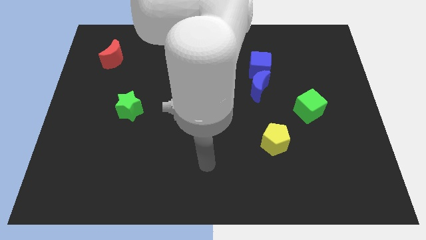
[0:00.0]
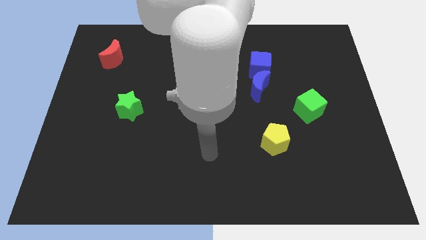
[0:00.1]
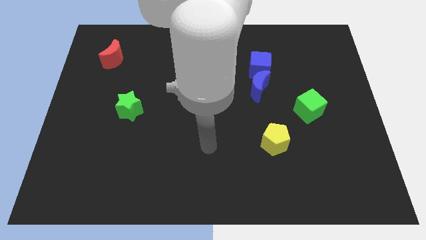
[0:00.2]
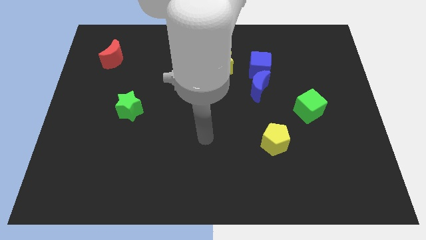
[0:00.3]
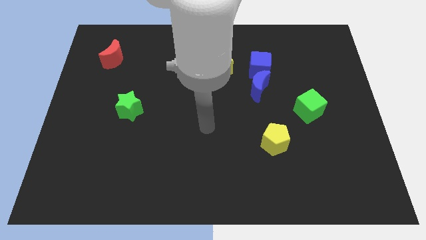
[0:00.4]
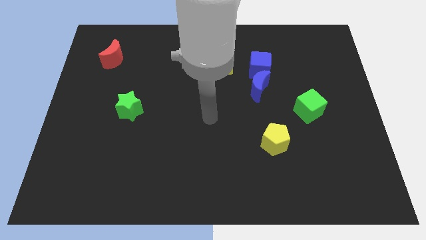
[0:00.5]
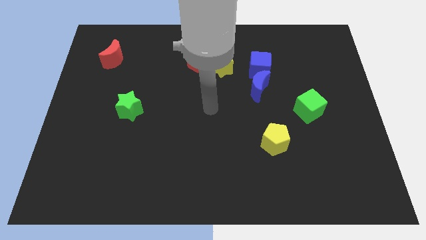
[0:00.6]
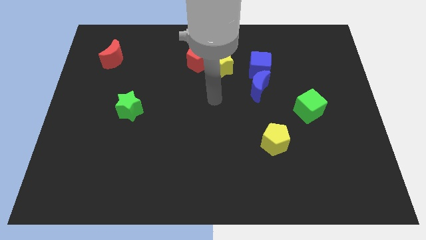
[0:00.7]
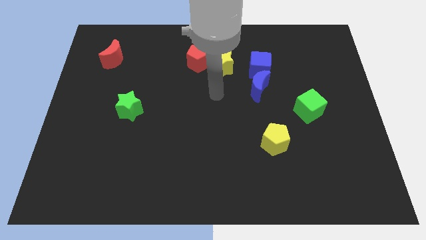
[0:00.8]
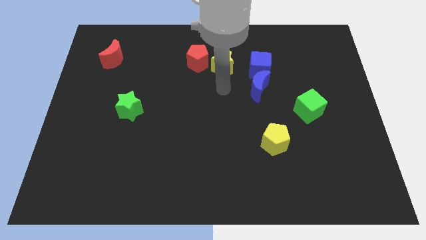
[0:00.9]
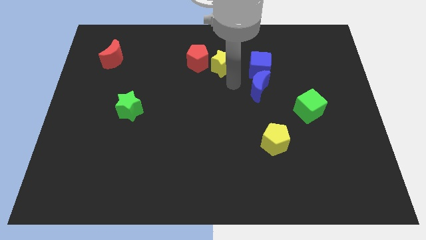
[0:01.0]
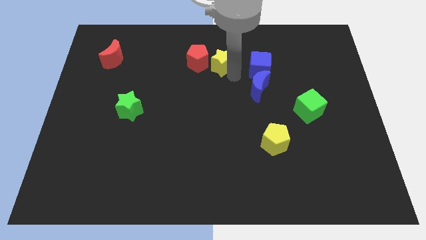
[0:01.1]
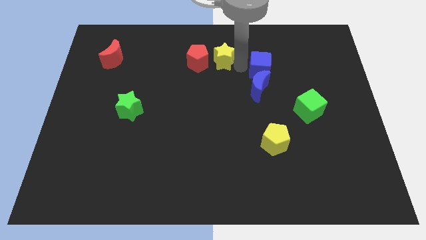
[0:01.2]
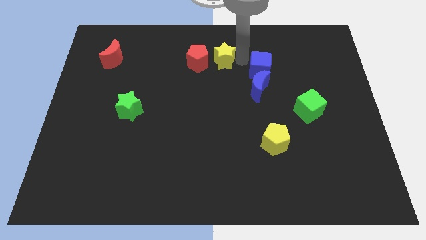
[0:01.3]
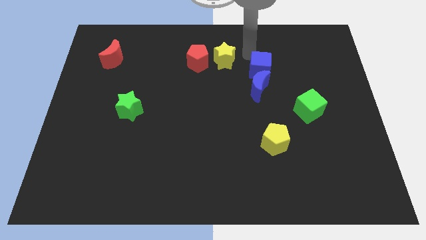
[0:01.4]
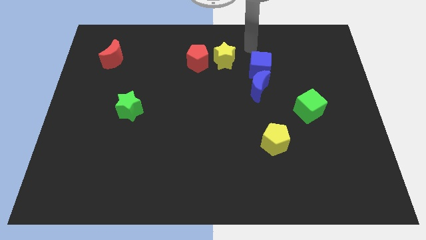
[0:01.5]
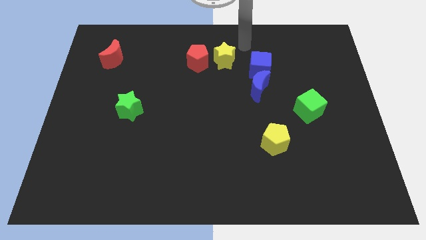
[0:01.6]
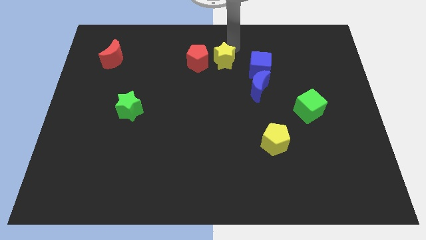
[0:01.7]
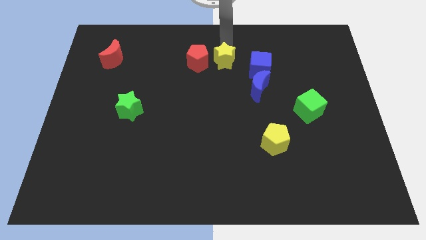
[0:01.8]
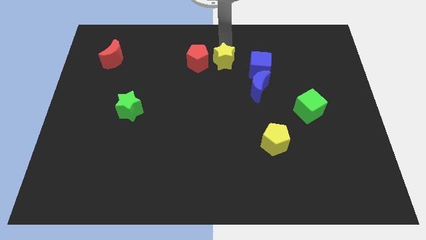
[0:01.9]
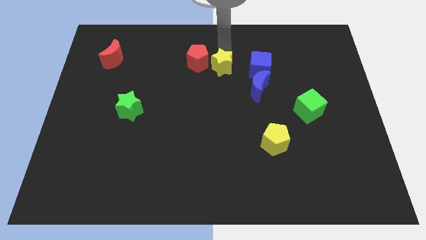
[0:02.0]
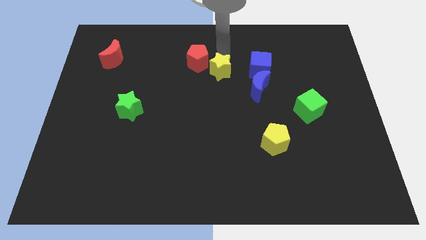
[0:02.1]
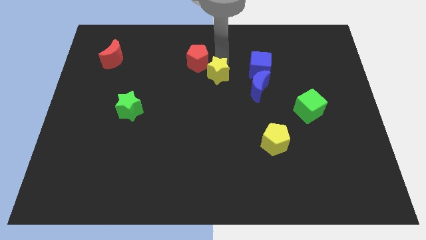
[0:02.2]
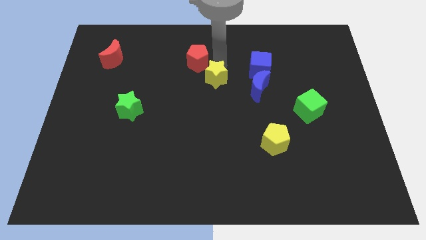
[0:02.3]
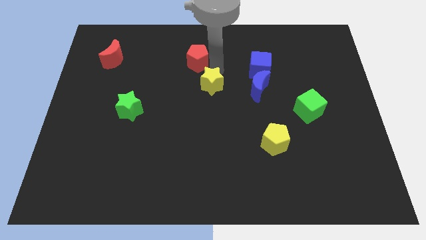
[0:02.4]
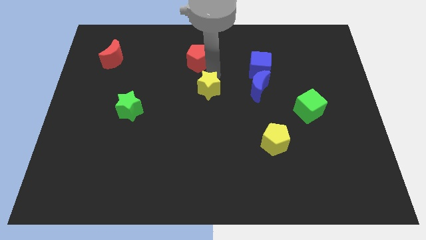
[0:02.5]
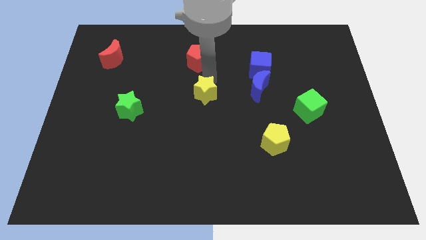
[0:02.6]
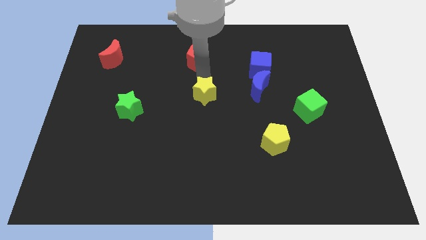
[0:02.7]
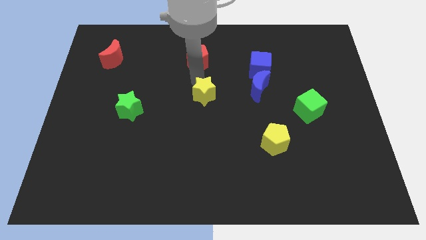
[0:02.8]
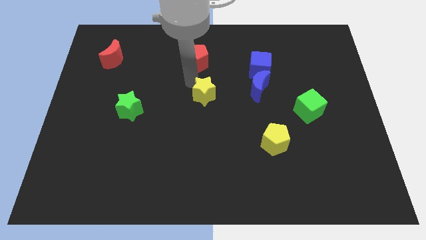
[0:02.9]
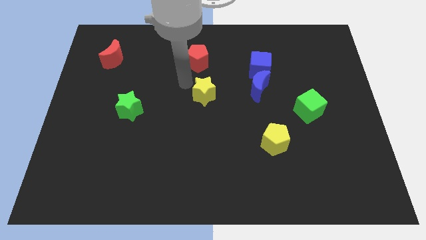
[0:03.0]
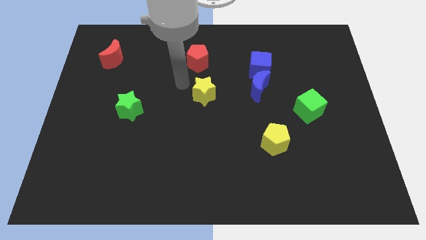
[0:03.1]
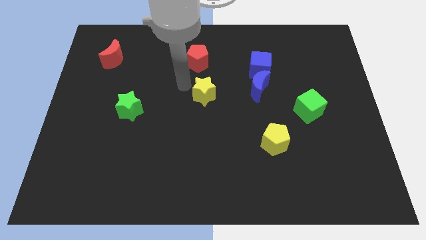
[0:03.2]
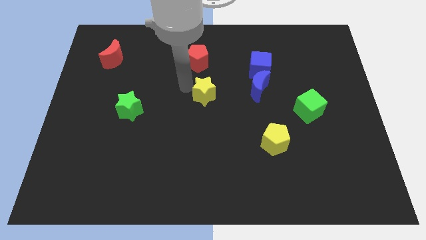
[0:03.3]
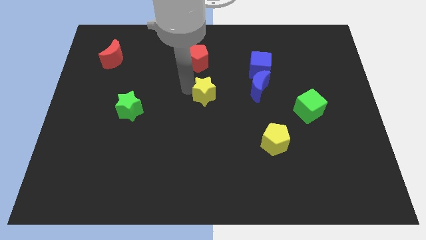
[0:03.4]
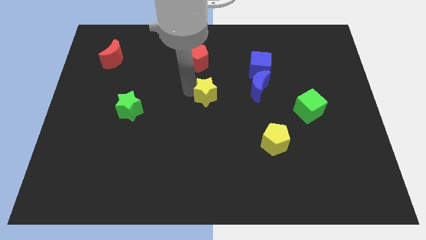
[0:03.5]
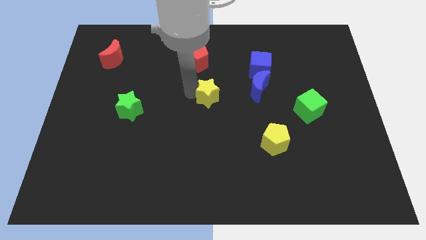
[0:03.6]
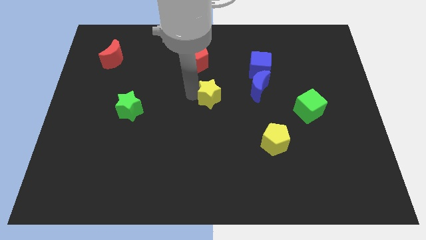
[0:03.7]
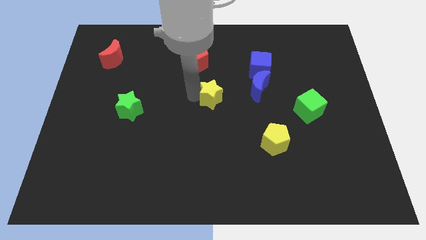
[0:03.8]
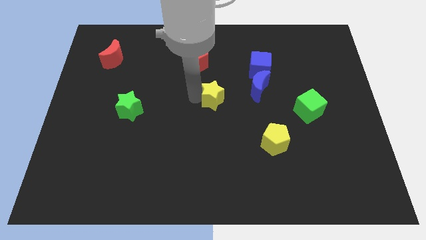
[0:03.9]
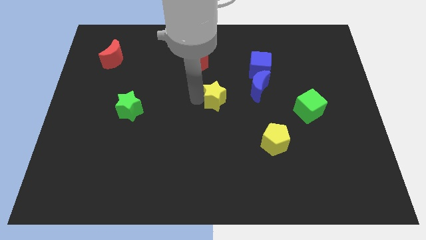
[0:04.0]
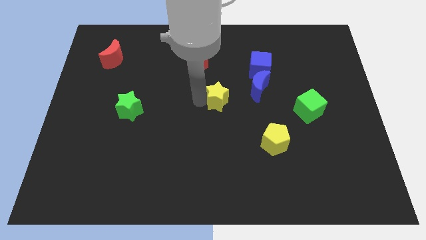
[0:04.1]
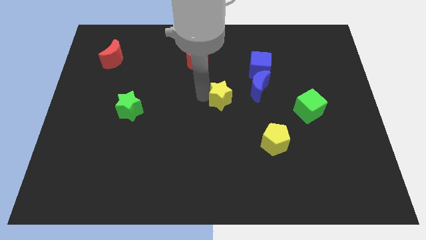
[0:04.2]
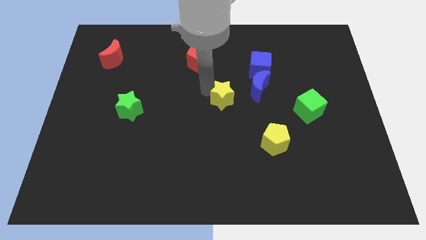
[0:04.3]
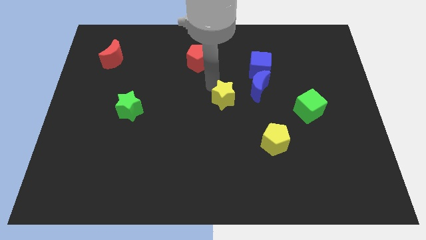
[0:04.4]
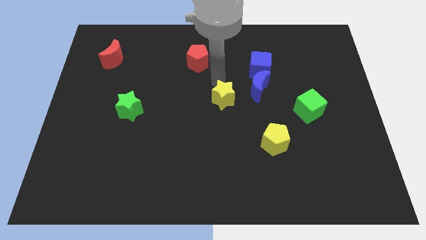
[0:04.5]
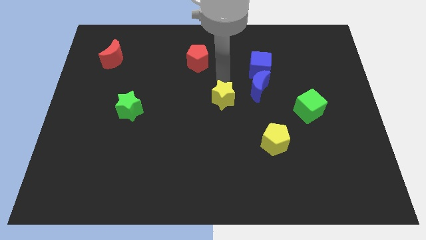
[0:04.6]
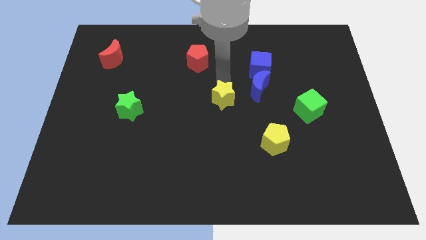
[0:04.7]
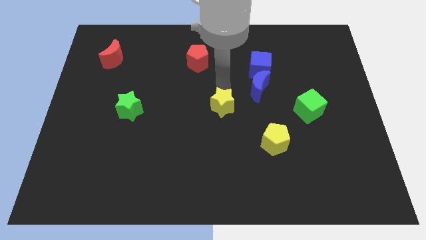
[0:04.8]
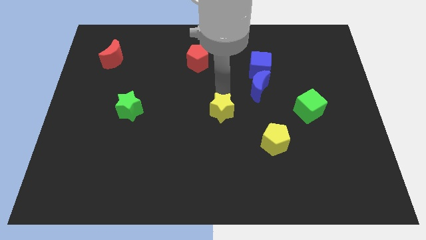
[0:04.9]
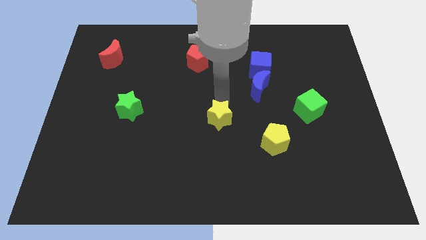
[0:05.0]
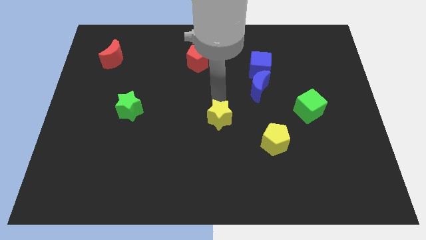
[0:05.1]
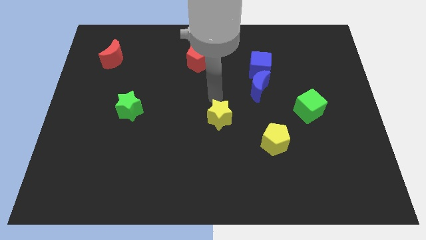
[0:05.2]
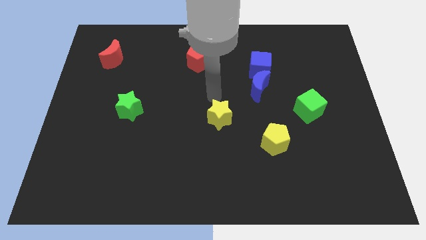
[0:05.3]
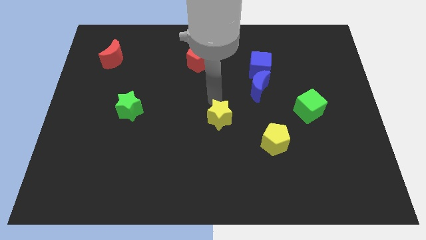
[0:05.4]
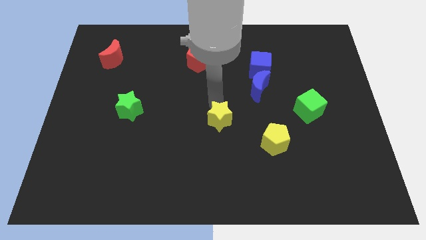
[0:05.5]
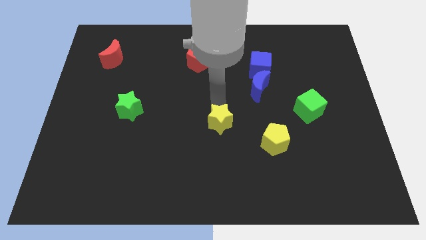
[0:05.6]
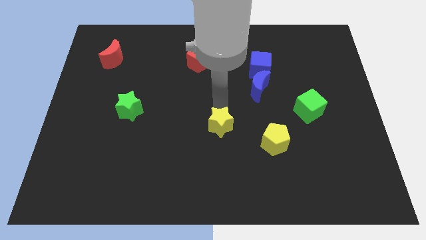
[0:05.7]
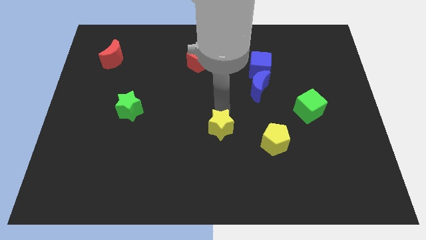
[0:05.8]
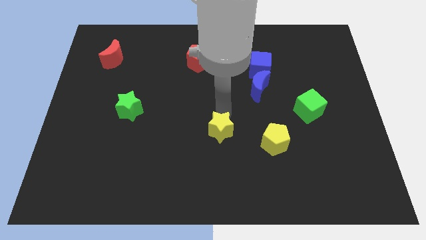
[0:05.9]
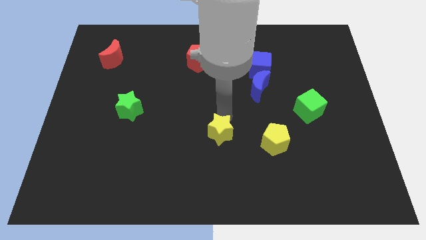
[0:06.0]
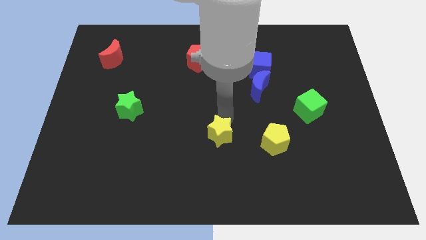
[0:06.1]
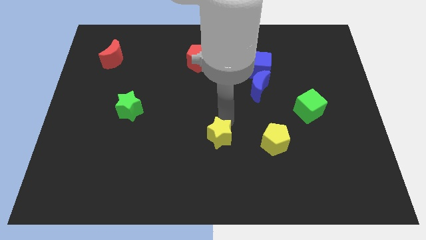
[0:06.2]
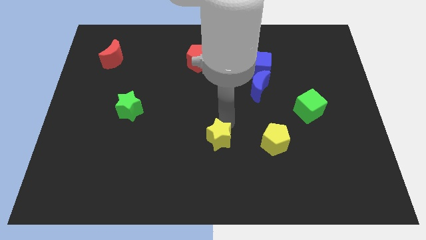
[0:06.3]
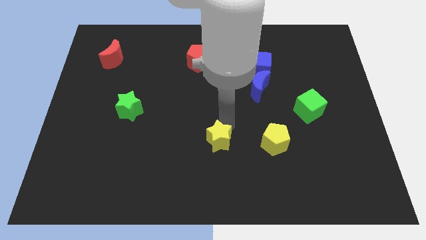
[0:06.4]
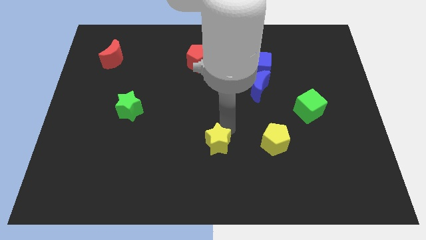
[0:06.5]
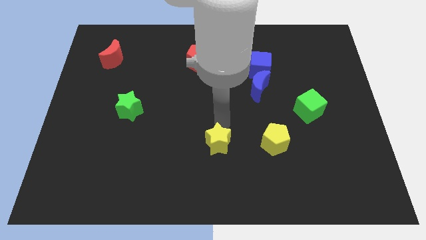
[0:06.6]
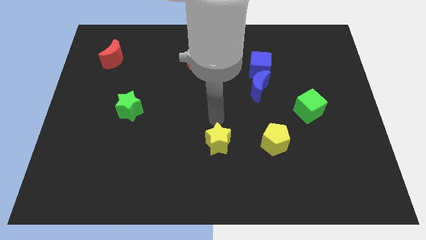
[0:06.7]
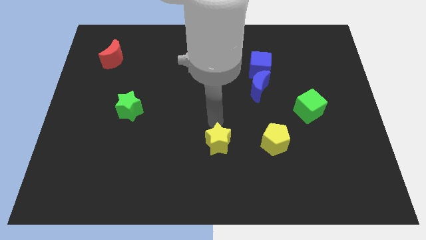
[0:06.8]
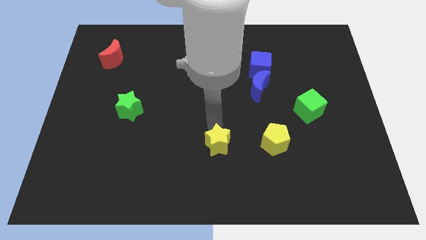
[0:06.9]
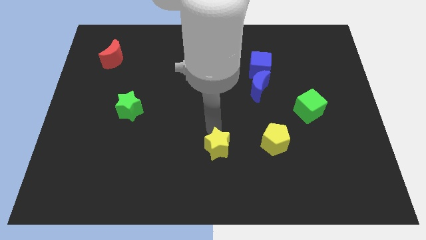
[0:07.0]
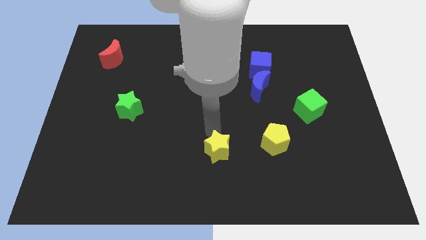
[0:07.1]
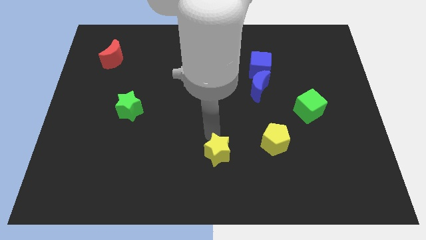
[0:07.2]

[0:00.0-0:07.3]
move the yellow star to the bottom

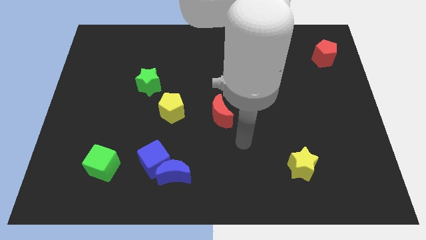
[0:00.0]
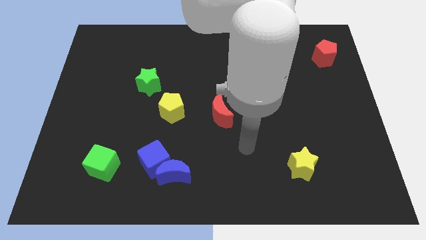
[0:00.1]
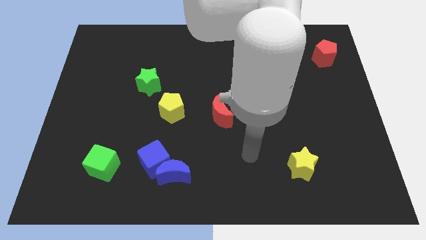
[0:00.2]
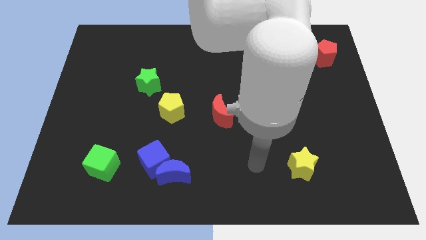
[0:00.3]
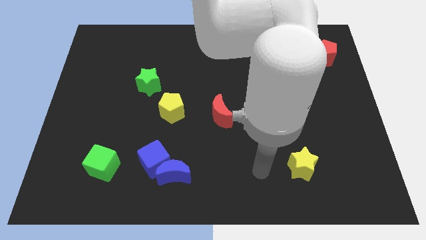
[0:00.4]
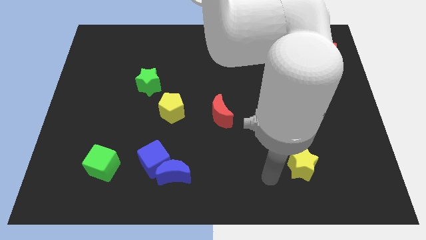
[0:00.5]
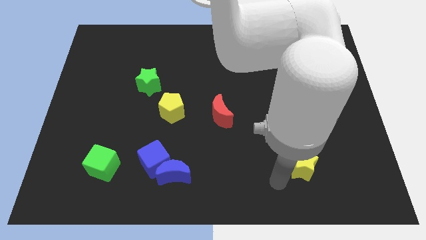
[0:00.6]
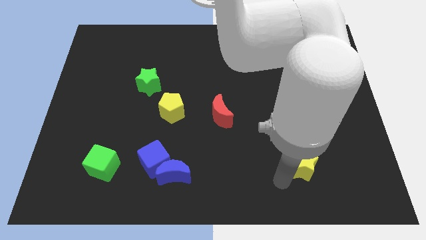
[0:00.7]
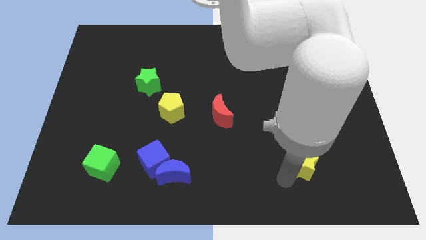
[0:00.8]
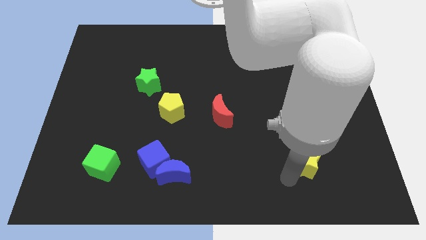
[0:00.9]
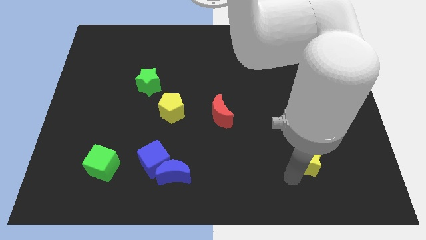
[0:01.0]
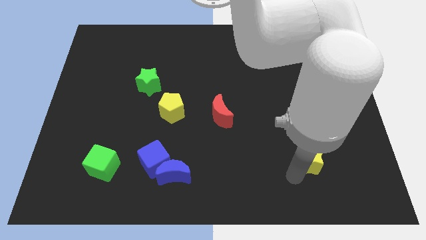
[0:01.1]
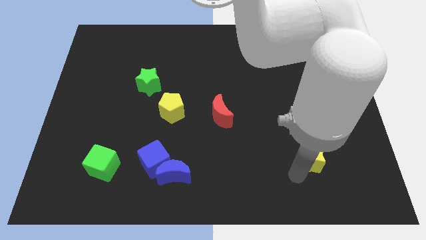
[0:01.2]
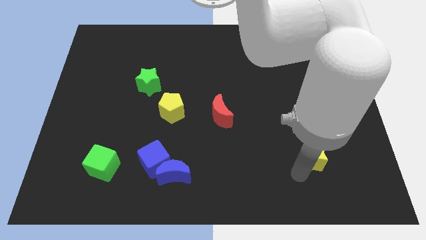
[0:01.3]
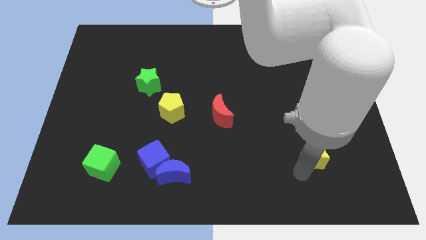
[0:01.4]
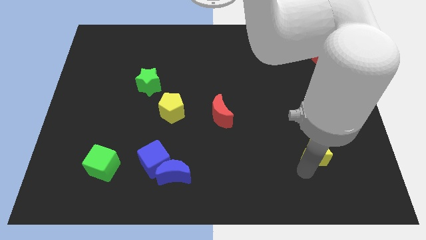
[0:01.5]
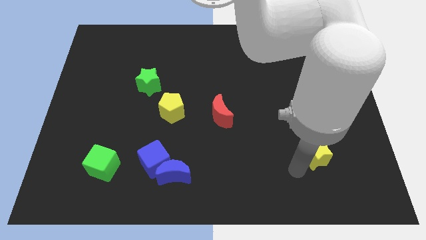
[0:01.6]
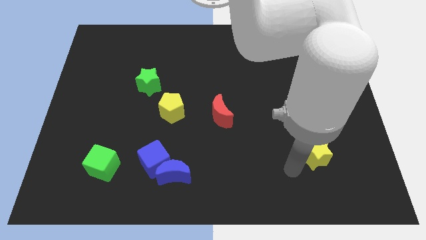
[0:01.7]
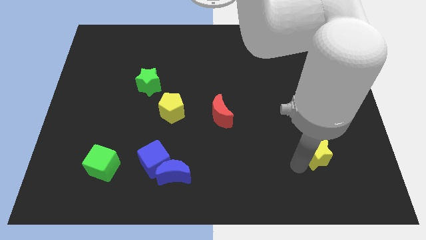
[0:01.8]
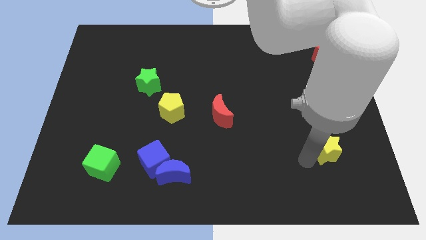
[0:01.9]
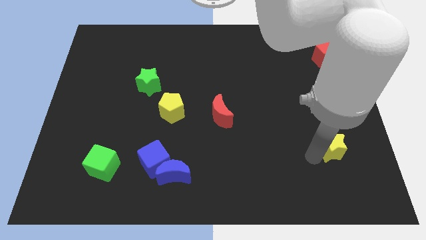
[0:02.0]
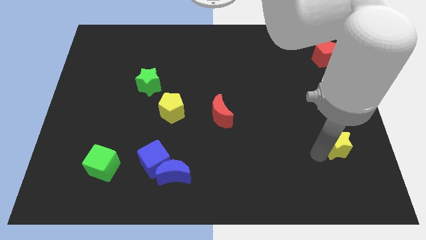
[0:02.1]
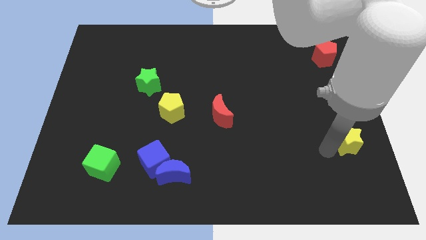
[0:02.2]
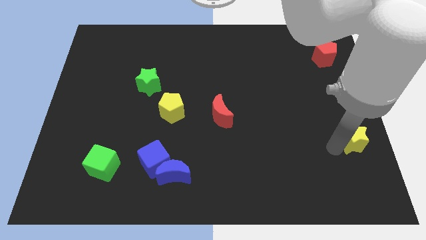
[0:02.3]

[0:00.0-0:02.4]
move the yellow star to the right side
